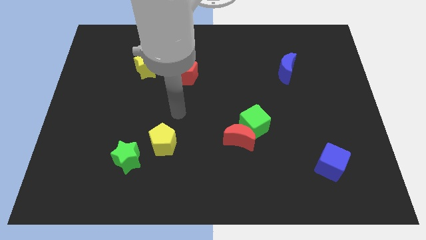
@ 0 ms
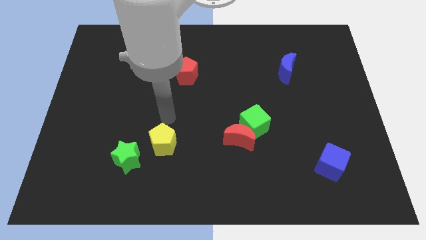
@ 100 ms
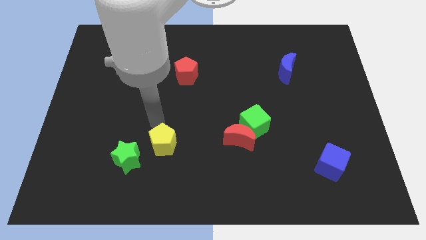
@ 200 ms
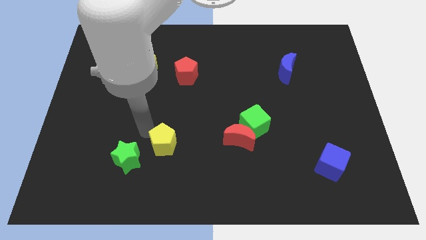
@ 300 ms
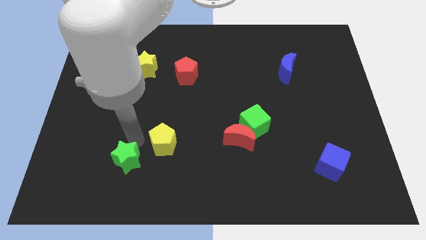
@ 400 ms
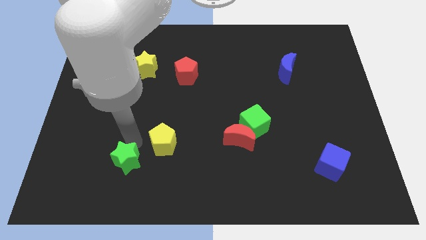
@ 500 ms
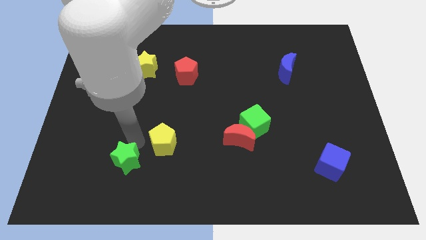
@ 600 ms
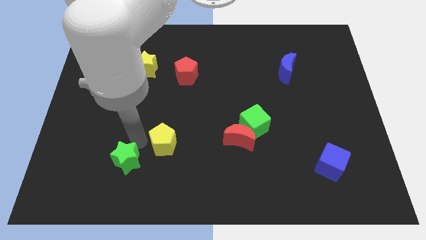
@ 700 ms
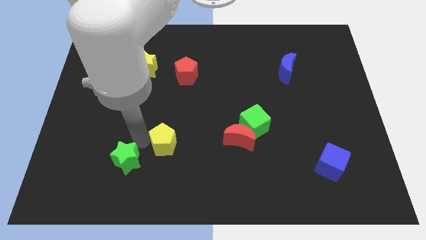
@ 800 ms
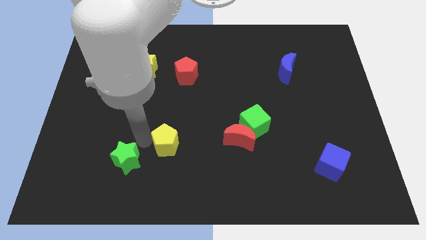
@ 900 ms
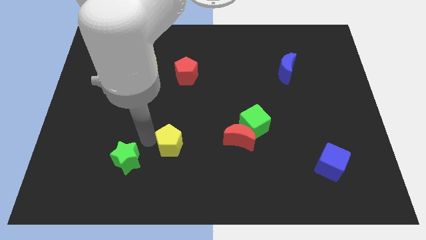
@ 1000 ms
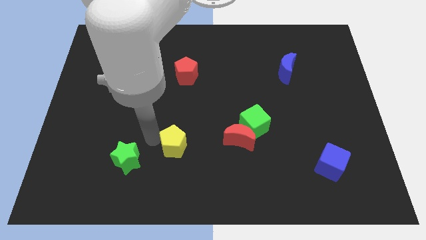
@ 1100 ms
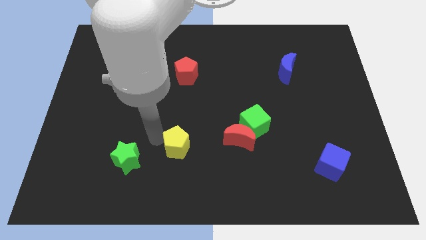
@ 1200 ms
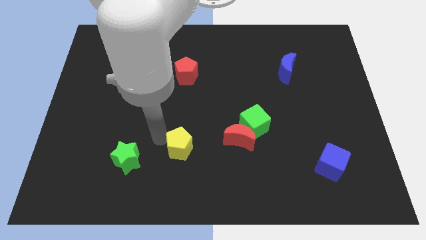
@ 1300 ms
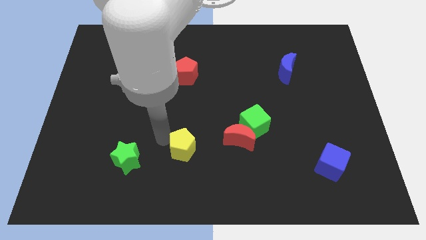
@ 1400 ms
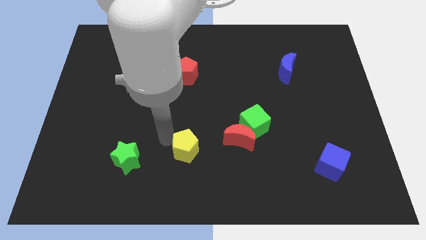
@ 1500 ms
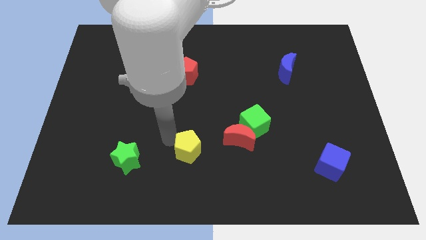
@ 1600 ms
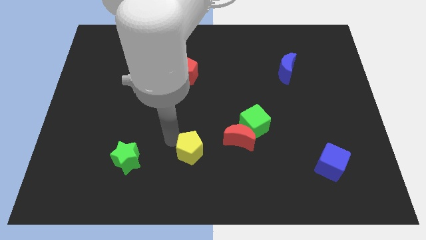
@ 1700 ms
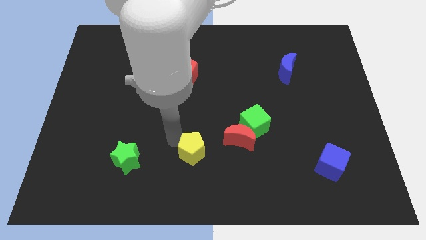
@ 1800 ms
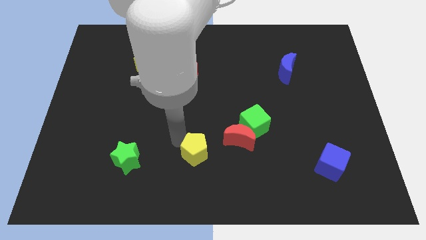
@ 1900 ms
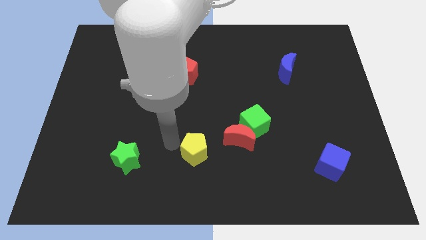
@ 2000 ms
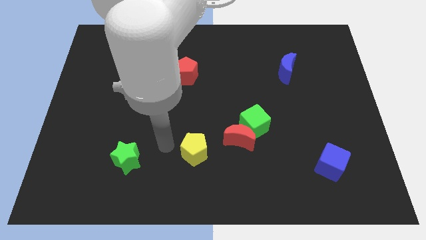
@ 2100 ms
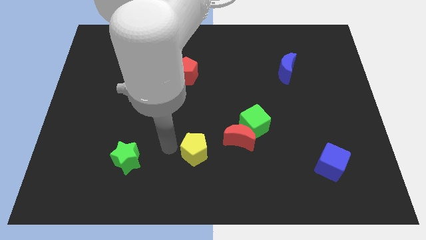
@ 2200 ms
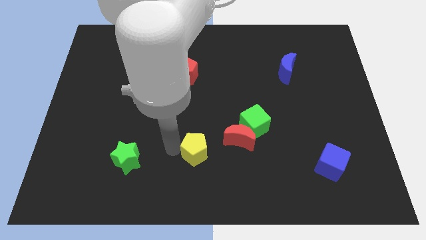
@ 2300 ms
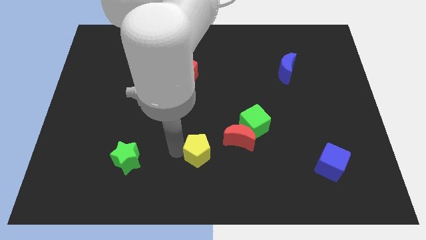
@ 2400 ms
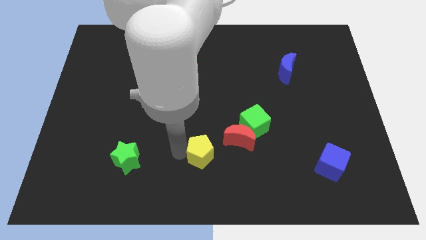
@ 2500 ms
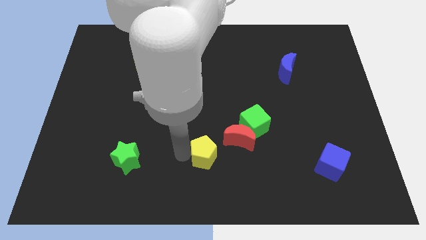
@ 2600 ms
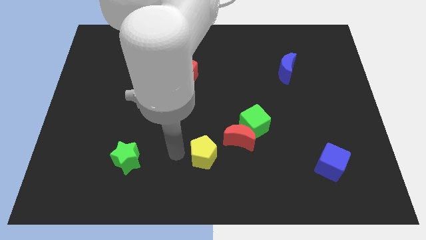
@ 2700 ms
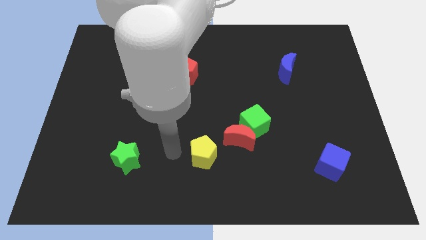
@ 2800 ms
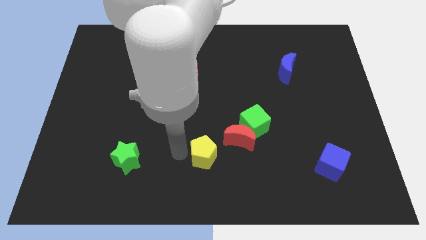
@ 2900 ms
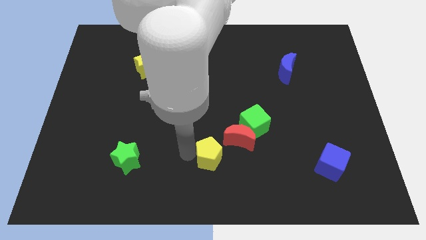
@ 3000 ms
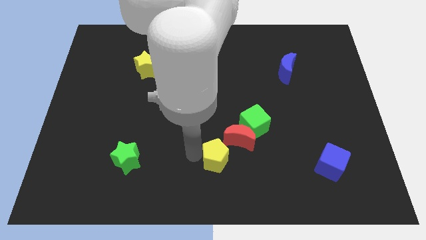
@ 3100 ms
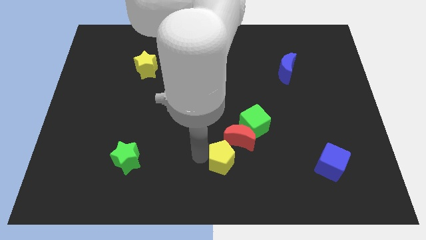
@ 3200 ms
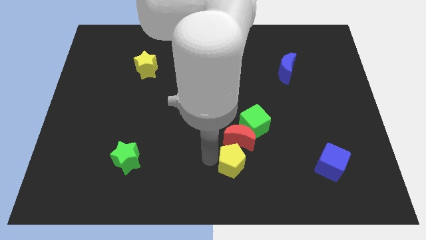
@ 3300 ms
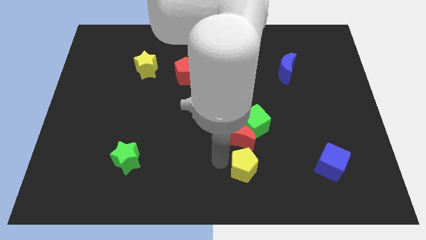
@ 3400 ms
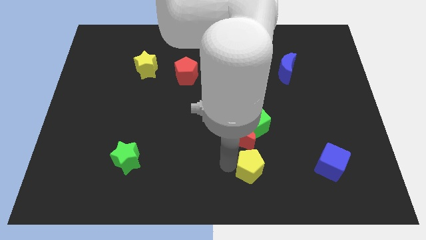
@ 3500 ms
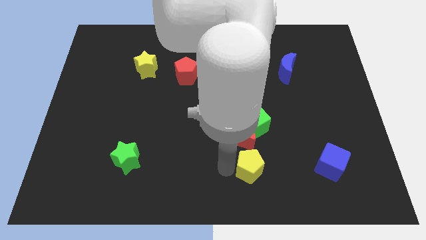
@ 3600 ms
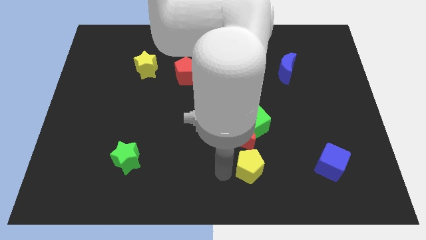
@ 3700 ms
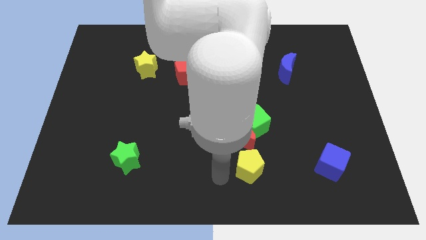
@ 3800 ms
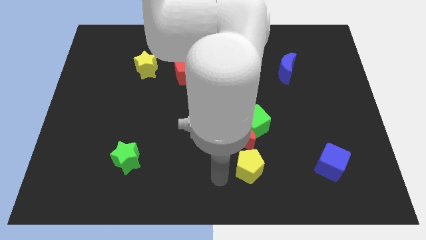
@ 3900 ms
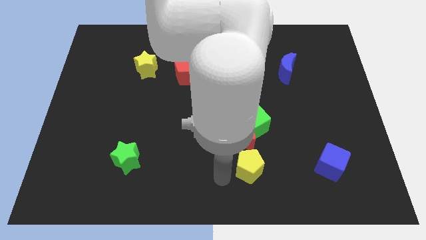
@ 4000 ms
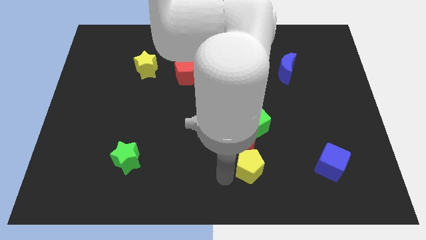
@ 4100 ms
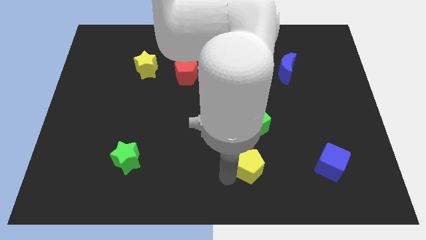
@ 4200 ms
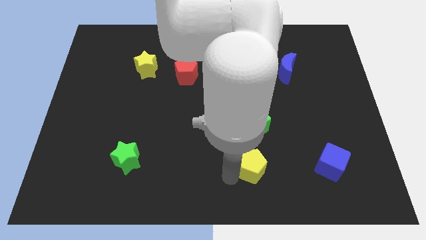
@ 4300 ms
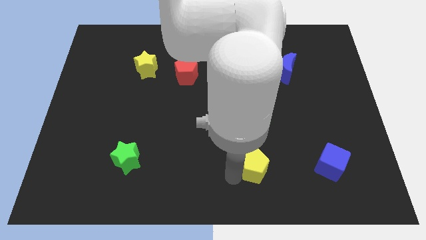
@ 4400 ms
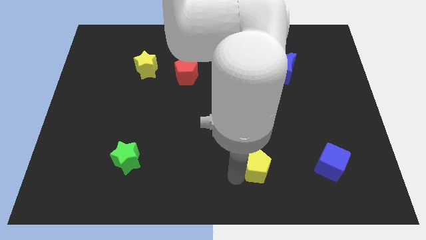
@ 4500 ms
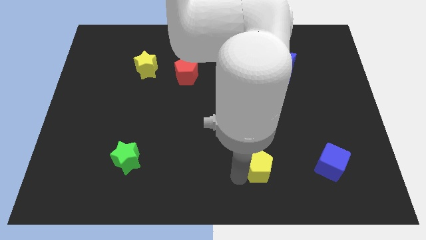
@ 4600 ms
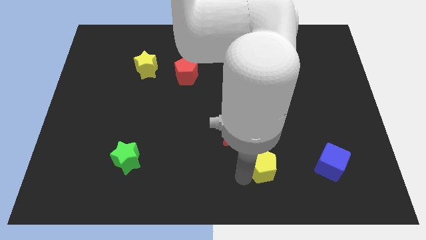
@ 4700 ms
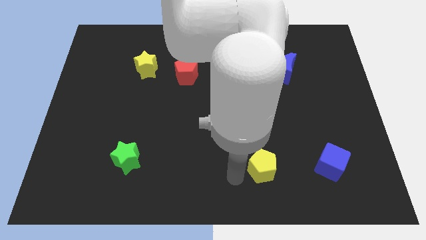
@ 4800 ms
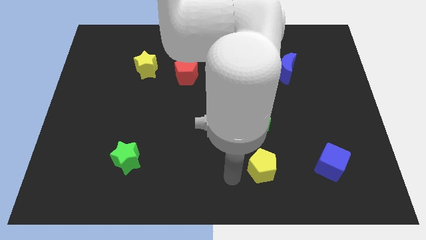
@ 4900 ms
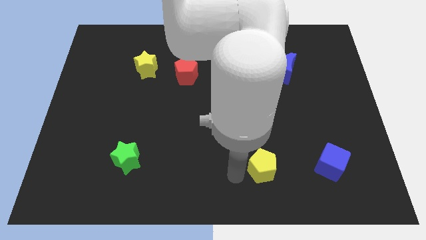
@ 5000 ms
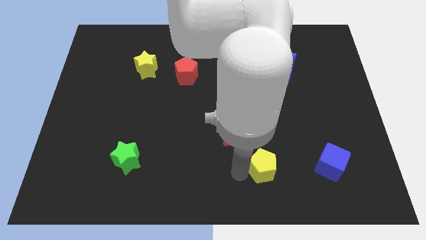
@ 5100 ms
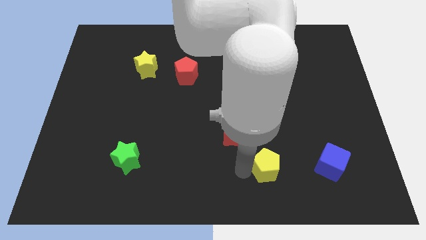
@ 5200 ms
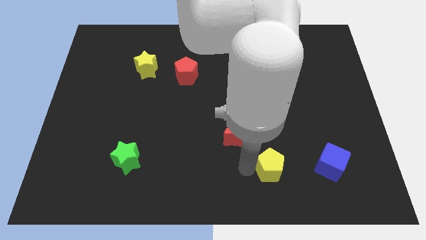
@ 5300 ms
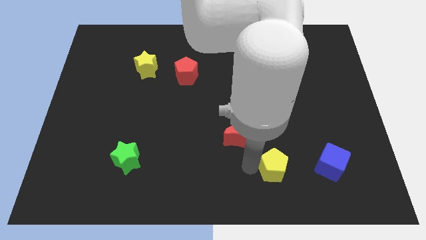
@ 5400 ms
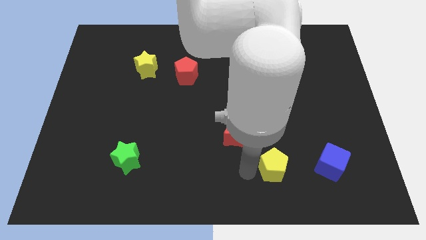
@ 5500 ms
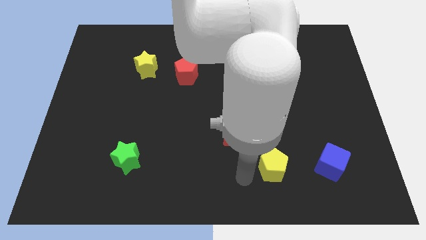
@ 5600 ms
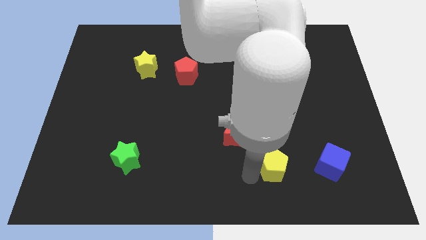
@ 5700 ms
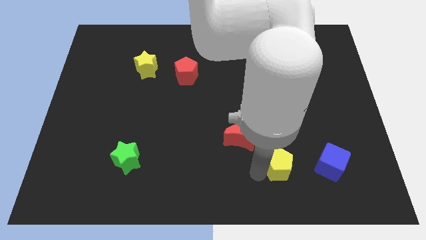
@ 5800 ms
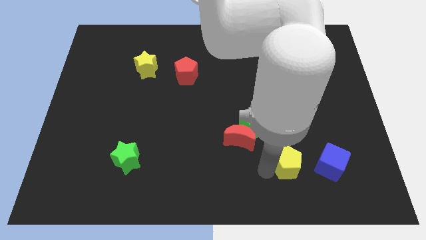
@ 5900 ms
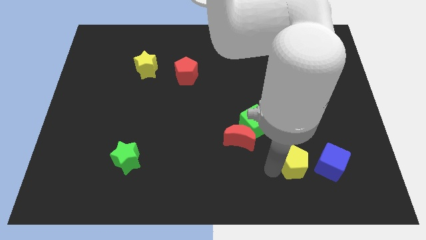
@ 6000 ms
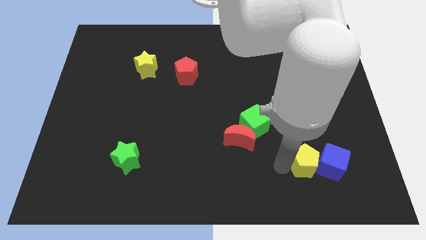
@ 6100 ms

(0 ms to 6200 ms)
put the yellow pentagon next to the blue cube

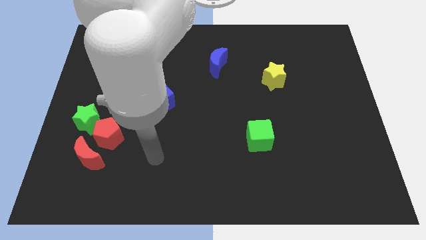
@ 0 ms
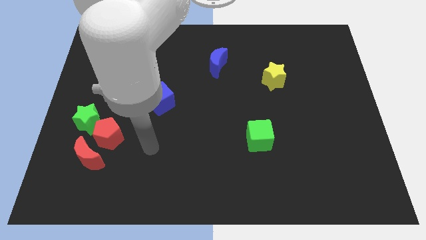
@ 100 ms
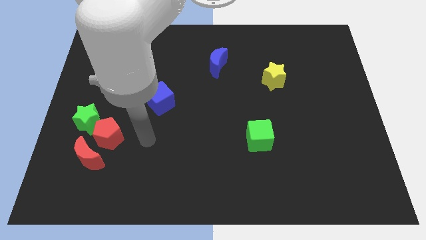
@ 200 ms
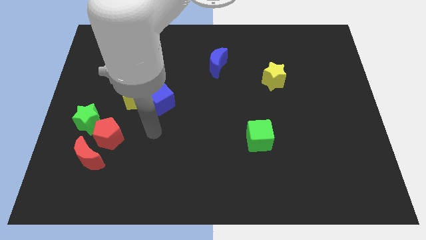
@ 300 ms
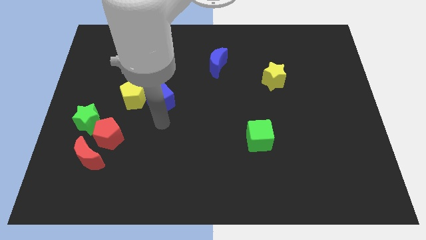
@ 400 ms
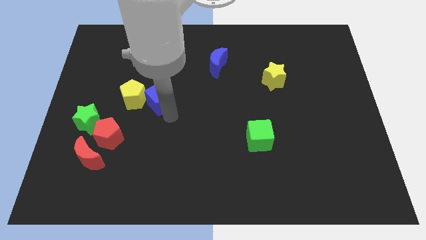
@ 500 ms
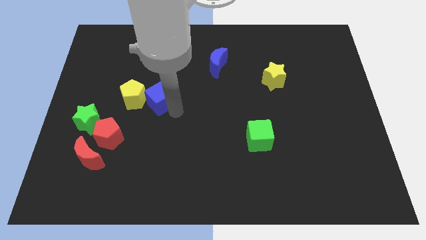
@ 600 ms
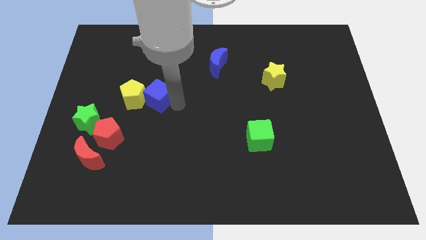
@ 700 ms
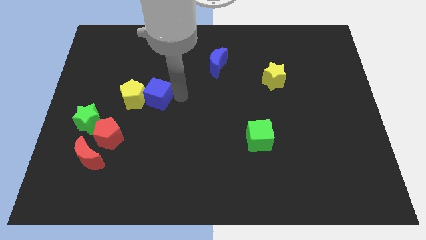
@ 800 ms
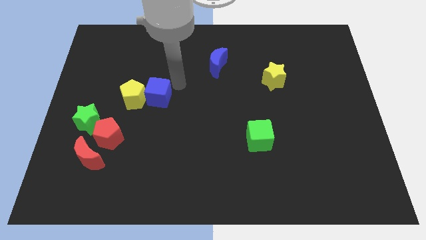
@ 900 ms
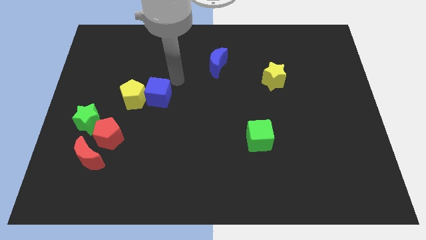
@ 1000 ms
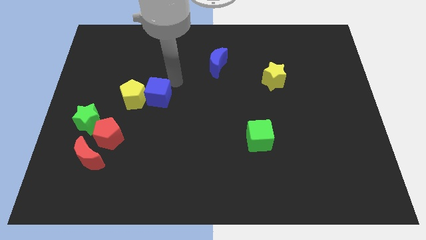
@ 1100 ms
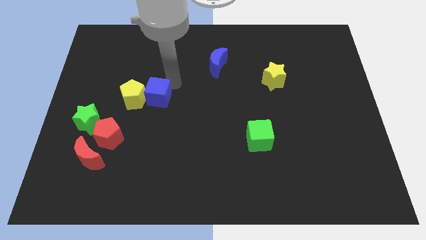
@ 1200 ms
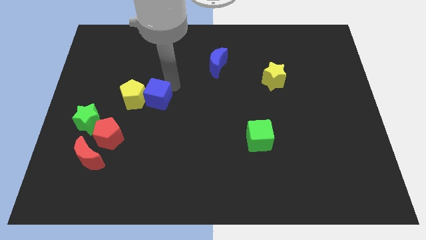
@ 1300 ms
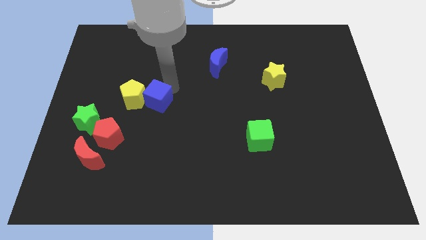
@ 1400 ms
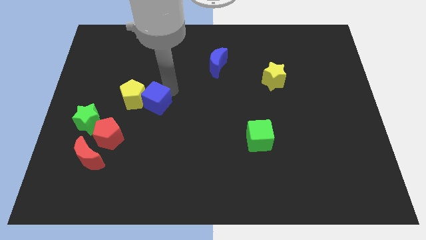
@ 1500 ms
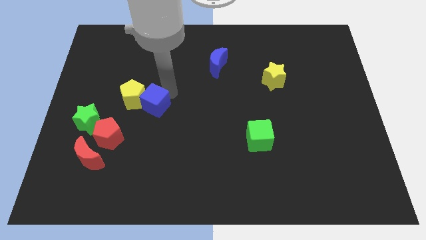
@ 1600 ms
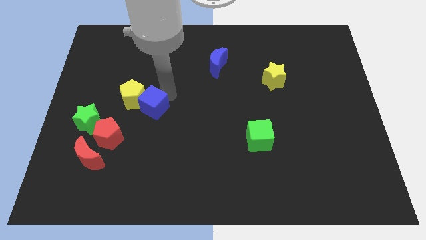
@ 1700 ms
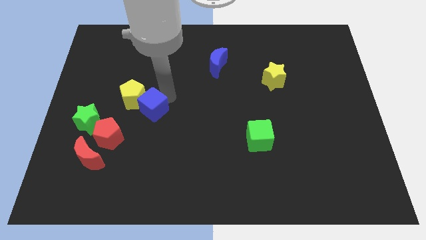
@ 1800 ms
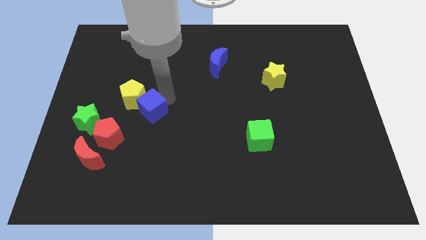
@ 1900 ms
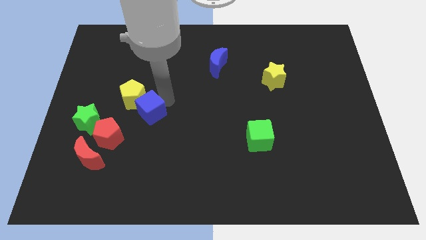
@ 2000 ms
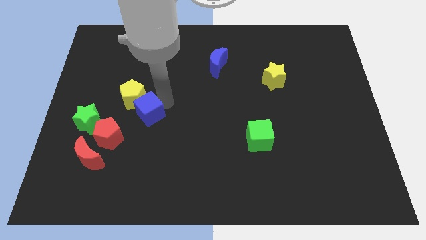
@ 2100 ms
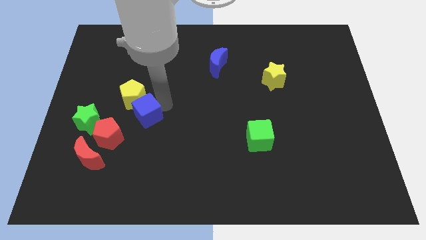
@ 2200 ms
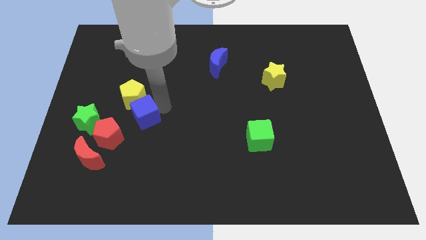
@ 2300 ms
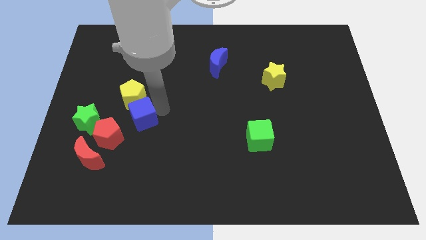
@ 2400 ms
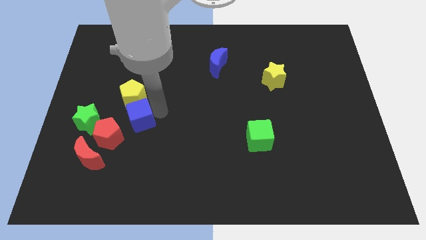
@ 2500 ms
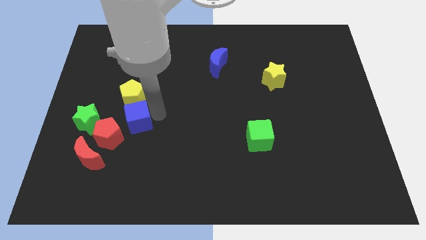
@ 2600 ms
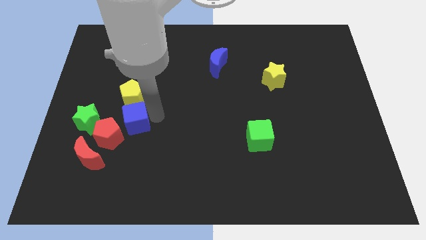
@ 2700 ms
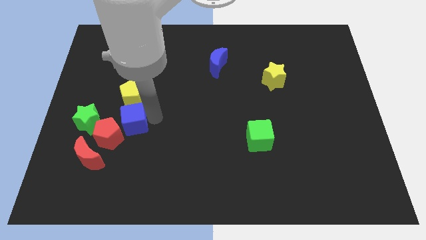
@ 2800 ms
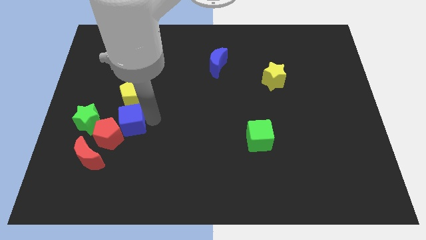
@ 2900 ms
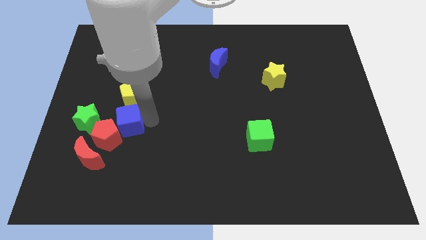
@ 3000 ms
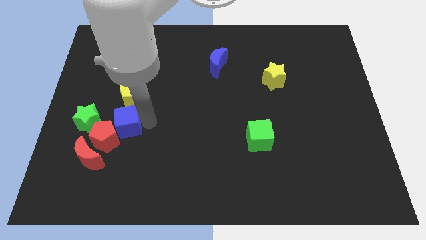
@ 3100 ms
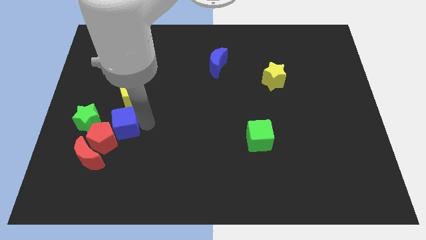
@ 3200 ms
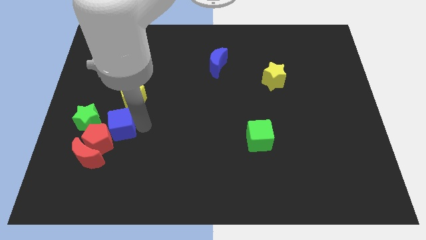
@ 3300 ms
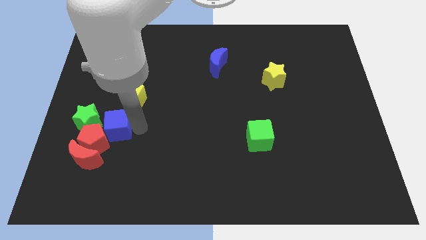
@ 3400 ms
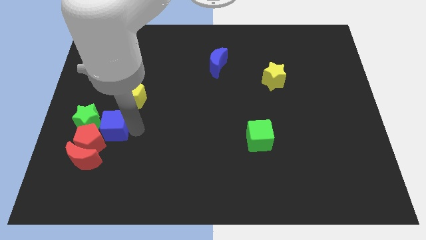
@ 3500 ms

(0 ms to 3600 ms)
slide the blue cube to the green star
